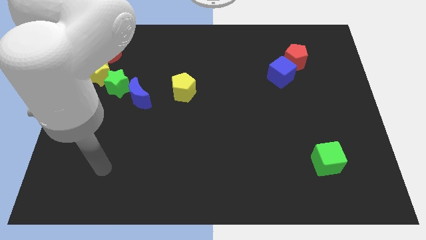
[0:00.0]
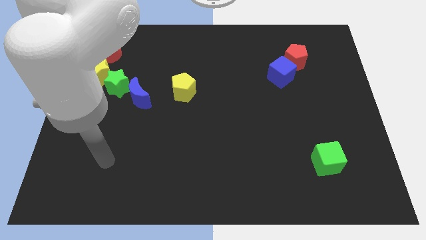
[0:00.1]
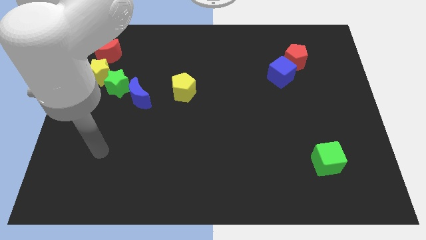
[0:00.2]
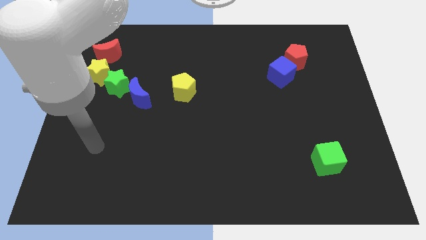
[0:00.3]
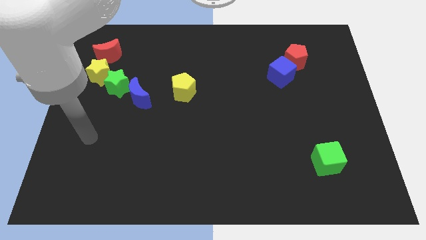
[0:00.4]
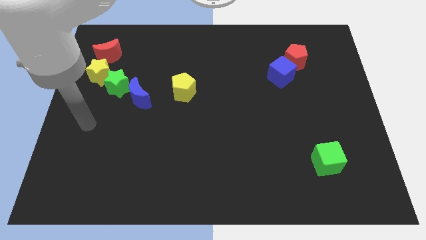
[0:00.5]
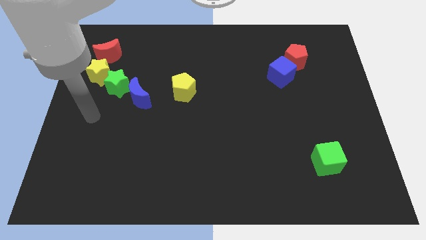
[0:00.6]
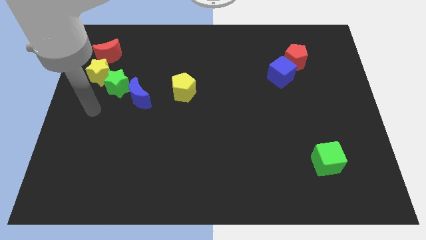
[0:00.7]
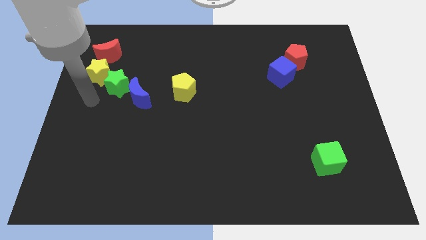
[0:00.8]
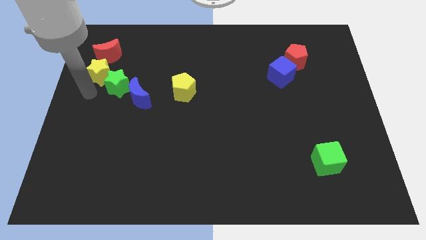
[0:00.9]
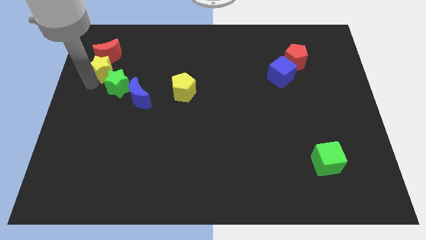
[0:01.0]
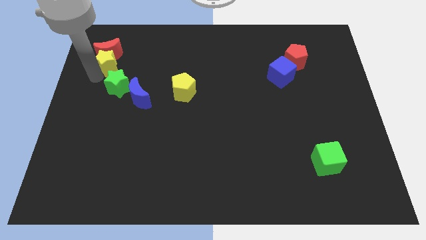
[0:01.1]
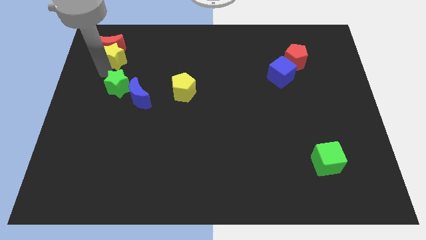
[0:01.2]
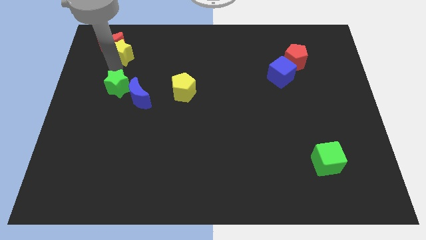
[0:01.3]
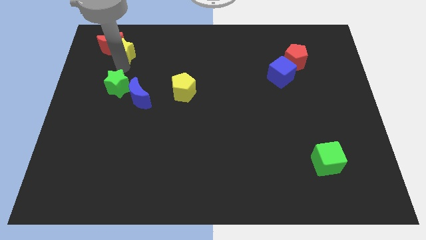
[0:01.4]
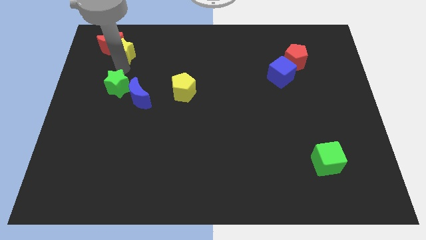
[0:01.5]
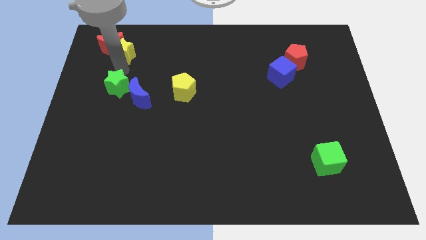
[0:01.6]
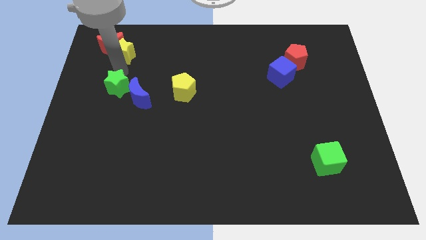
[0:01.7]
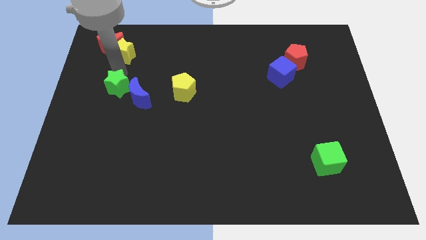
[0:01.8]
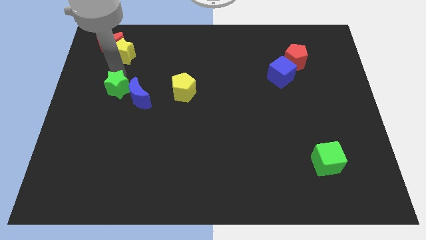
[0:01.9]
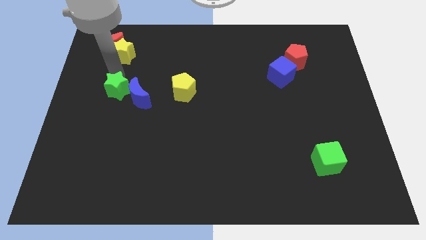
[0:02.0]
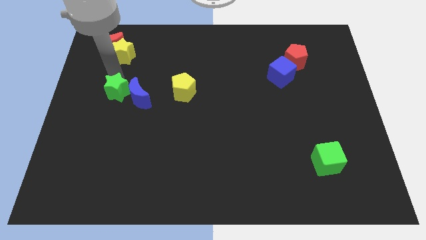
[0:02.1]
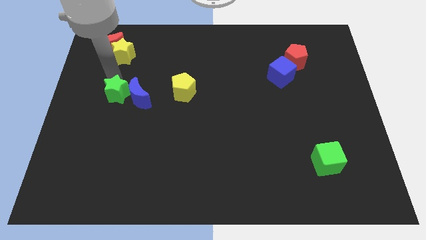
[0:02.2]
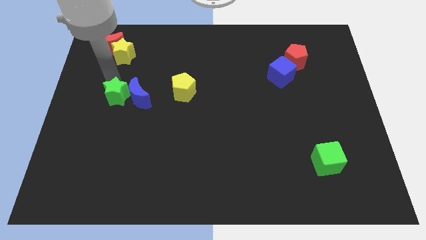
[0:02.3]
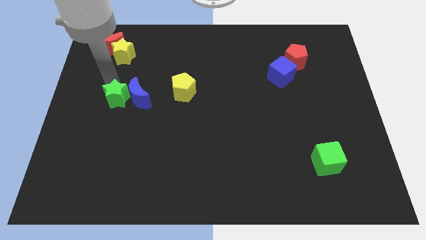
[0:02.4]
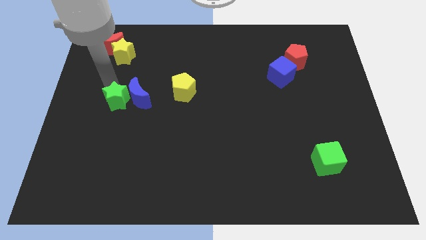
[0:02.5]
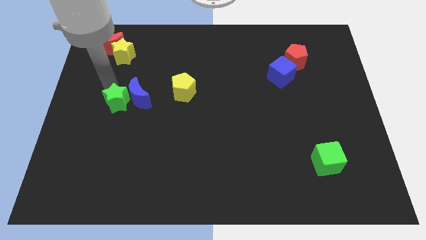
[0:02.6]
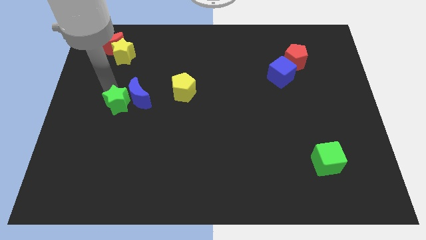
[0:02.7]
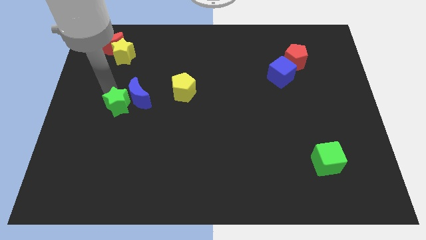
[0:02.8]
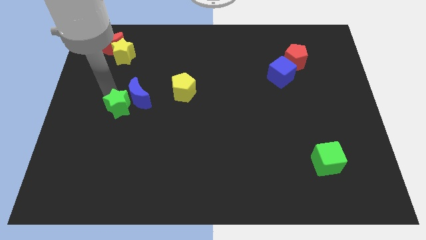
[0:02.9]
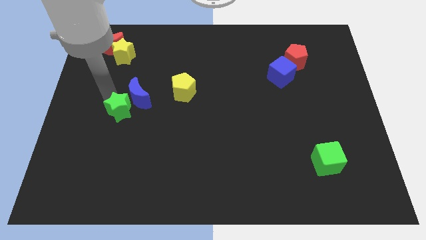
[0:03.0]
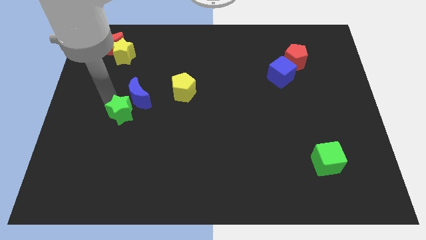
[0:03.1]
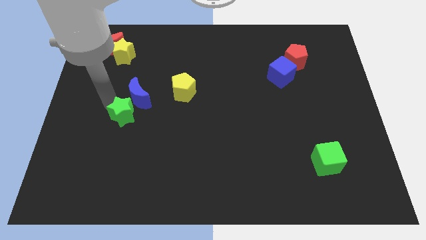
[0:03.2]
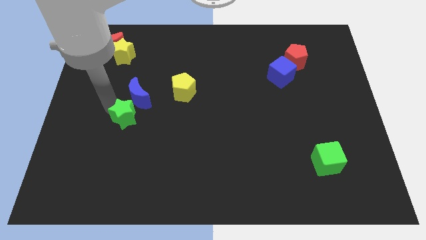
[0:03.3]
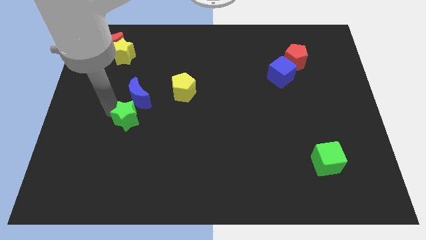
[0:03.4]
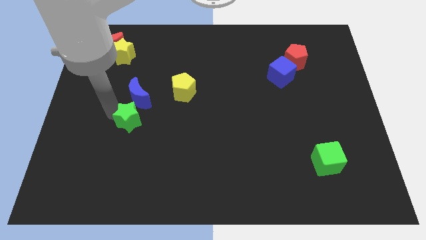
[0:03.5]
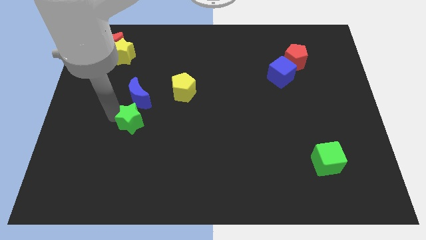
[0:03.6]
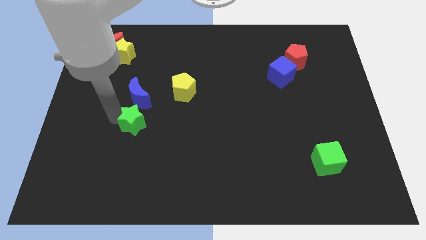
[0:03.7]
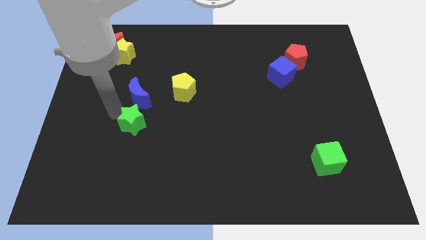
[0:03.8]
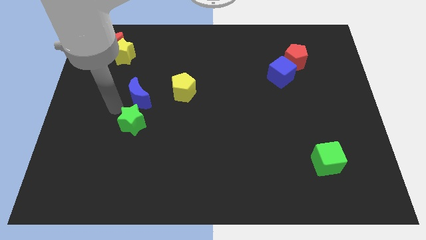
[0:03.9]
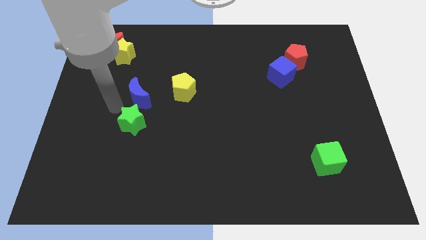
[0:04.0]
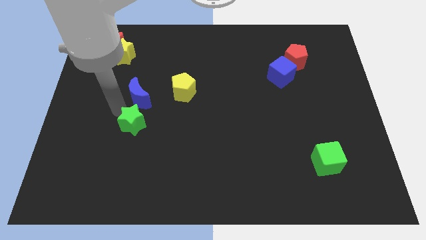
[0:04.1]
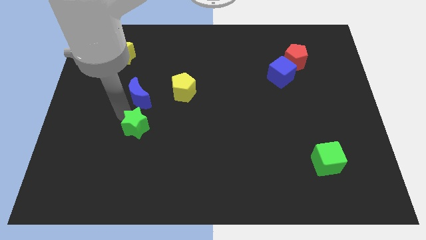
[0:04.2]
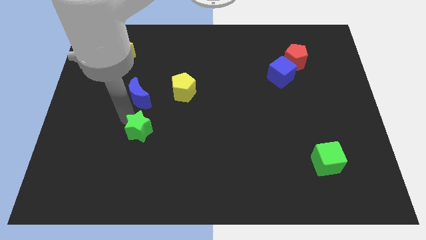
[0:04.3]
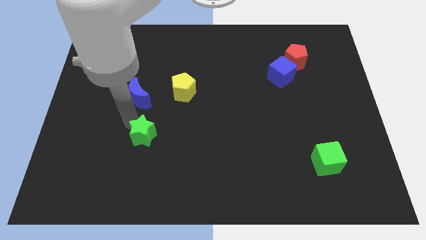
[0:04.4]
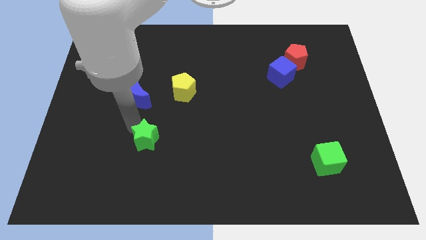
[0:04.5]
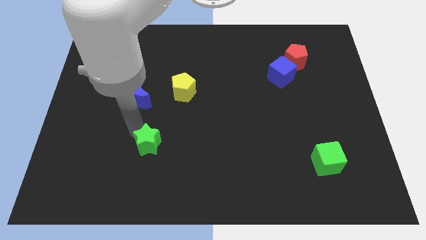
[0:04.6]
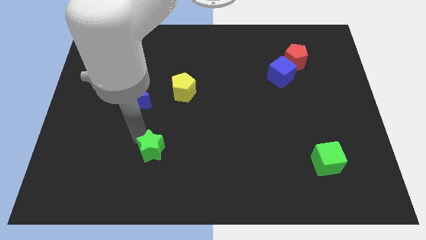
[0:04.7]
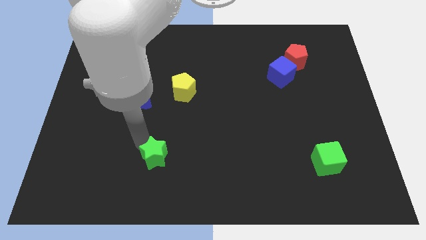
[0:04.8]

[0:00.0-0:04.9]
slide the green star diagonally down and right

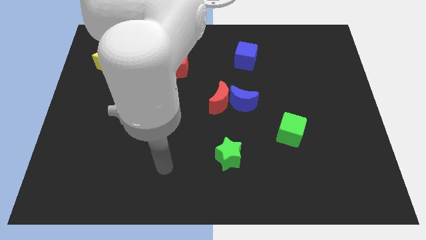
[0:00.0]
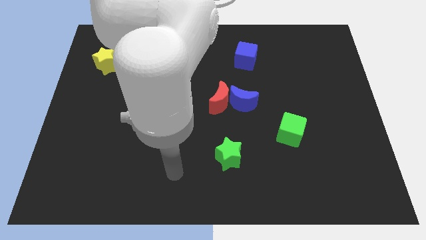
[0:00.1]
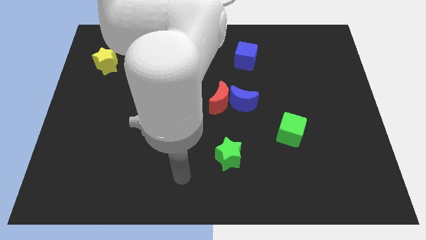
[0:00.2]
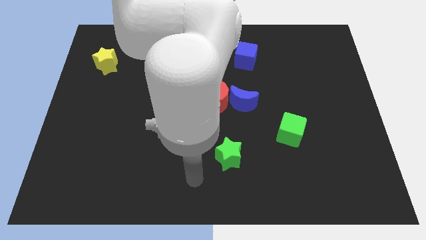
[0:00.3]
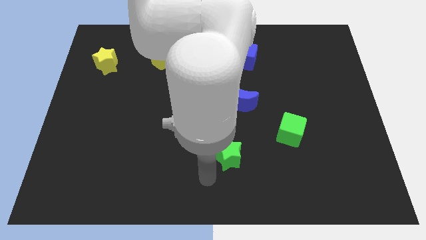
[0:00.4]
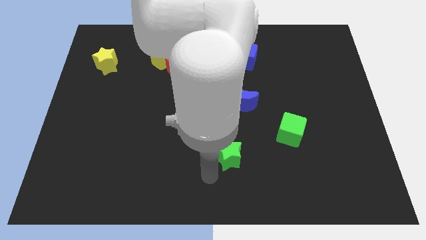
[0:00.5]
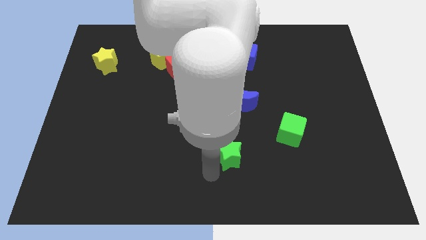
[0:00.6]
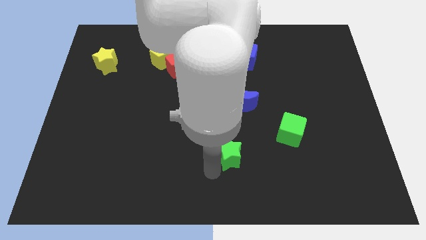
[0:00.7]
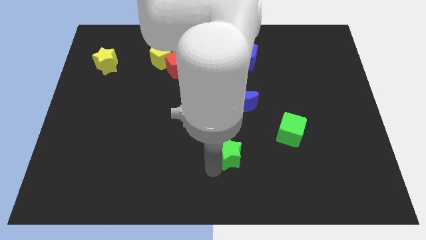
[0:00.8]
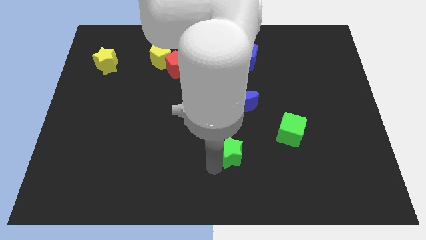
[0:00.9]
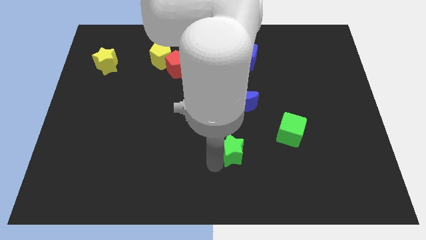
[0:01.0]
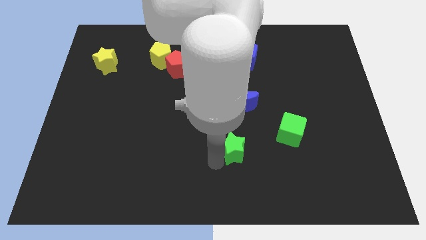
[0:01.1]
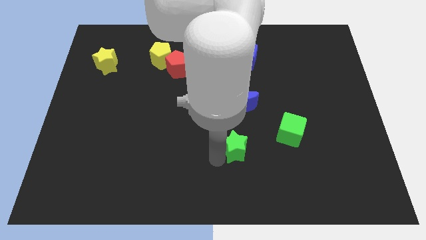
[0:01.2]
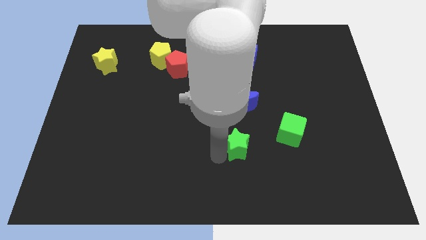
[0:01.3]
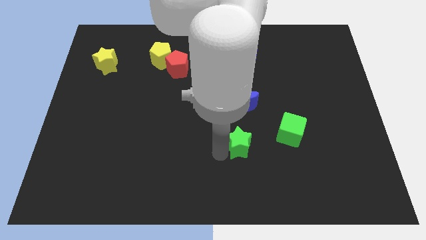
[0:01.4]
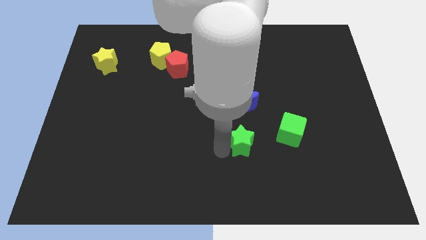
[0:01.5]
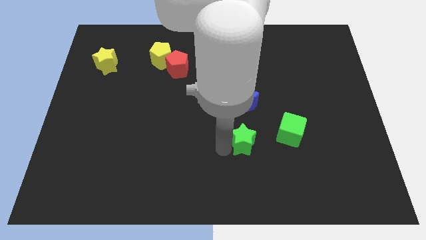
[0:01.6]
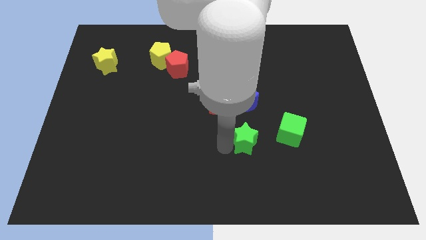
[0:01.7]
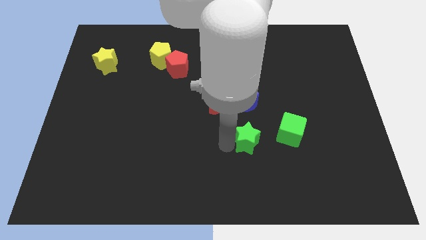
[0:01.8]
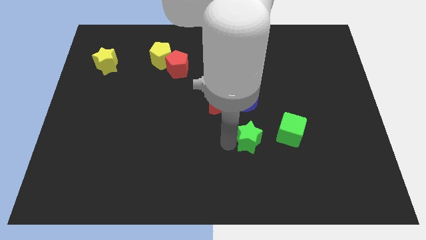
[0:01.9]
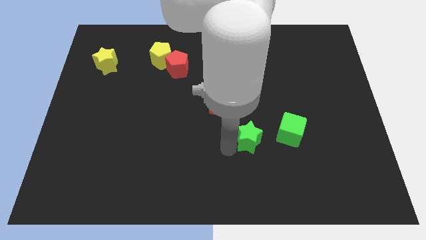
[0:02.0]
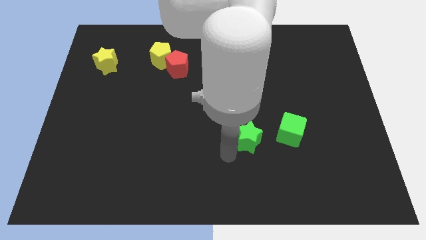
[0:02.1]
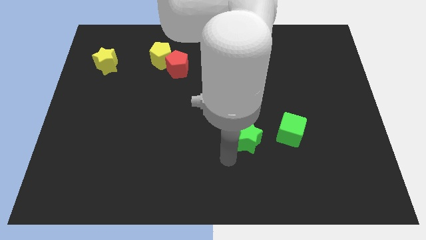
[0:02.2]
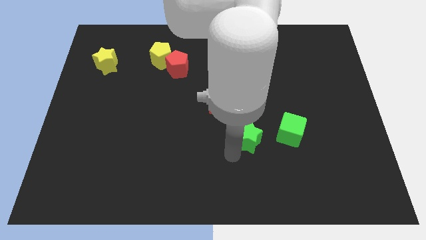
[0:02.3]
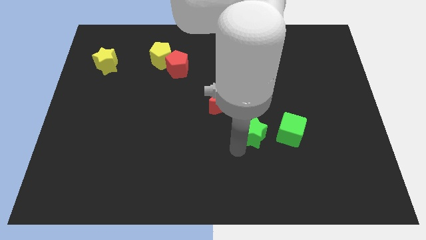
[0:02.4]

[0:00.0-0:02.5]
push the green star diagonally upwards and to the right a little bit

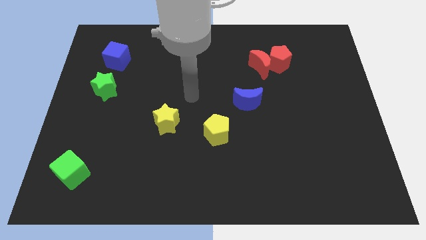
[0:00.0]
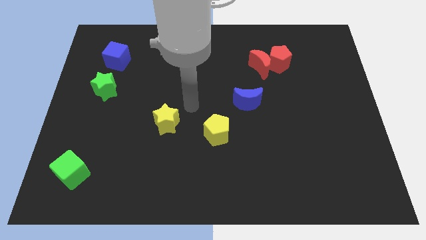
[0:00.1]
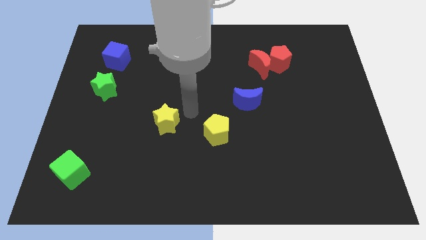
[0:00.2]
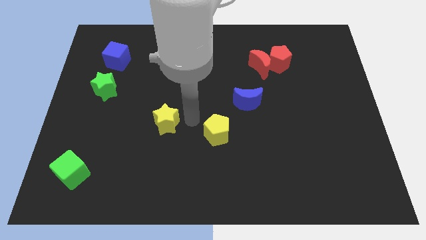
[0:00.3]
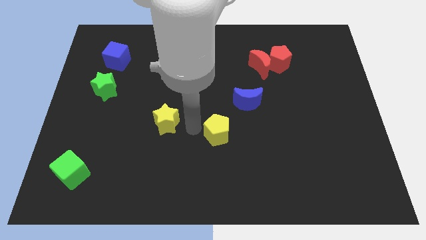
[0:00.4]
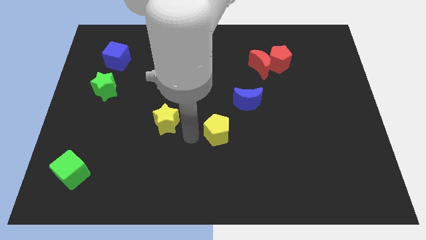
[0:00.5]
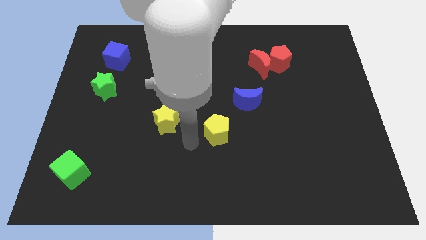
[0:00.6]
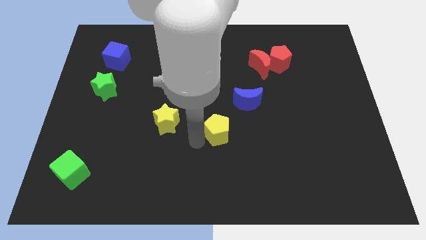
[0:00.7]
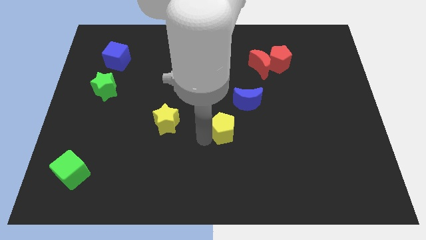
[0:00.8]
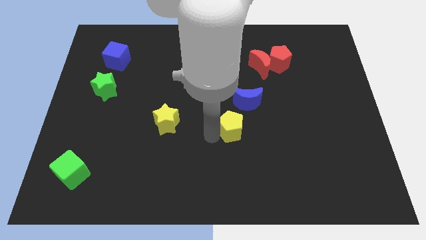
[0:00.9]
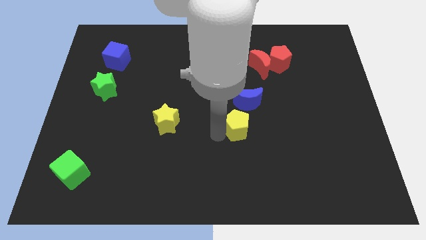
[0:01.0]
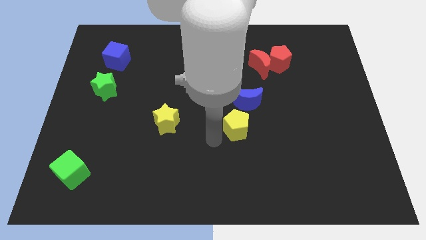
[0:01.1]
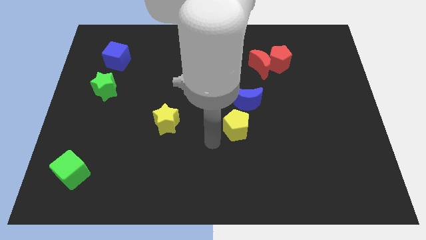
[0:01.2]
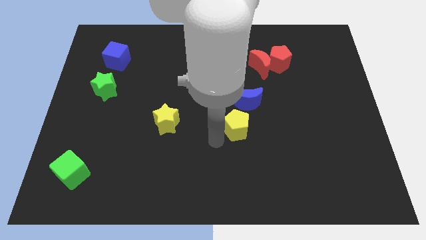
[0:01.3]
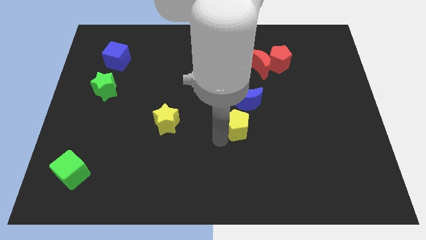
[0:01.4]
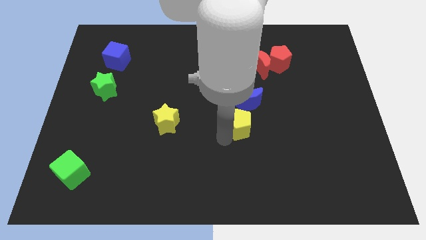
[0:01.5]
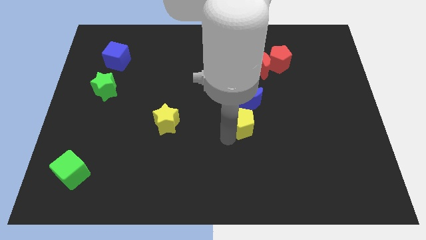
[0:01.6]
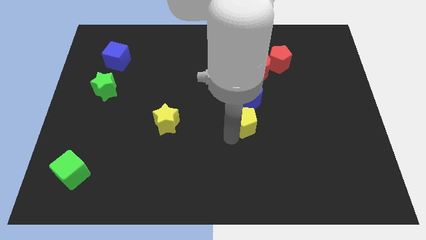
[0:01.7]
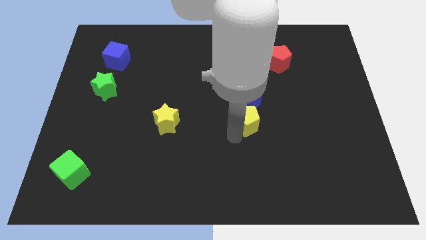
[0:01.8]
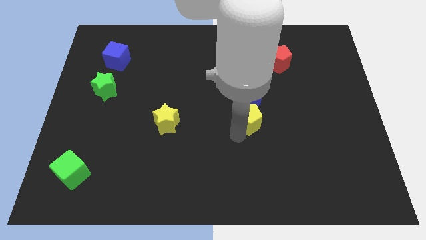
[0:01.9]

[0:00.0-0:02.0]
slide the yellow pentagon up and then right a little
